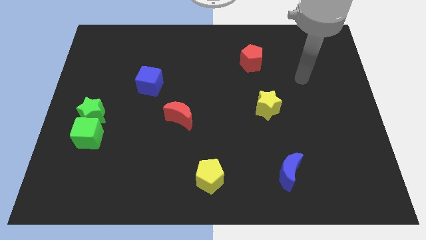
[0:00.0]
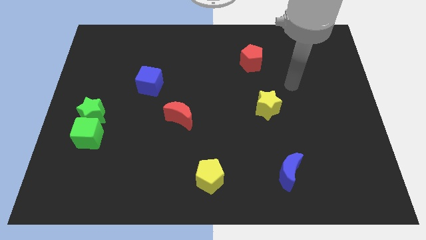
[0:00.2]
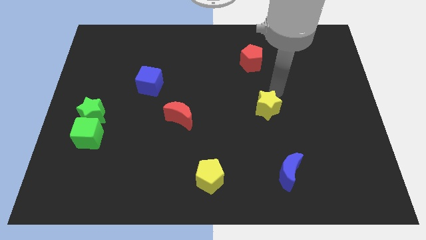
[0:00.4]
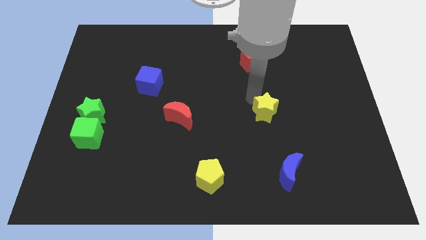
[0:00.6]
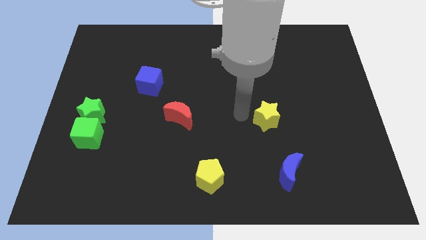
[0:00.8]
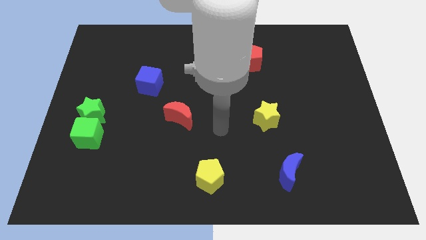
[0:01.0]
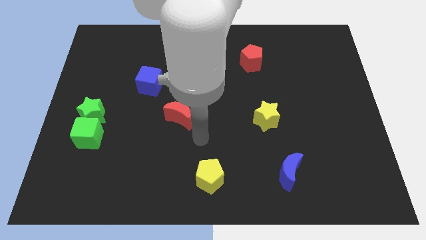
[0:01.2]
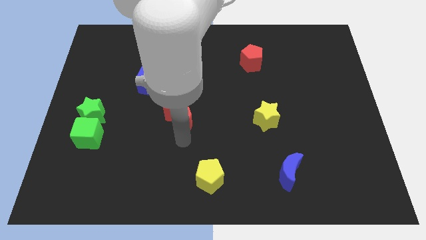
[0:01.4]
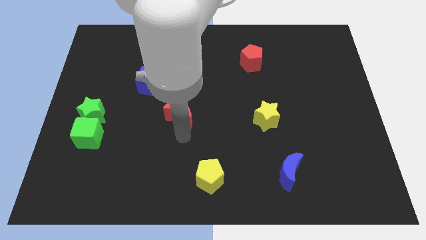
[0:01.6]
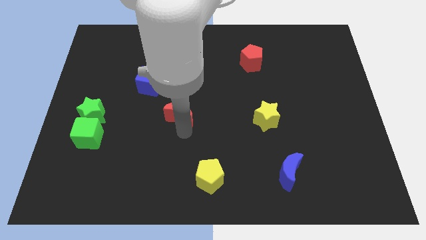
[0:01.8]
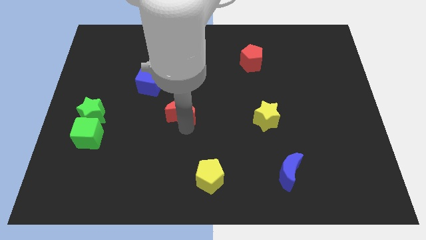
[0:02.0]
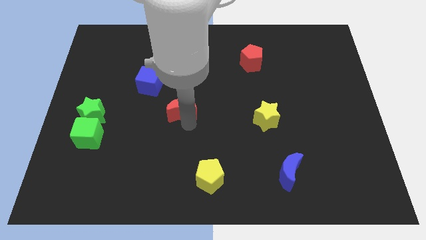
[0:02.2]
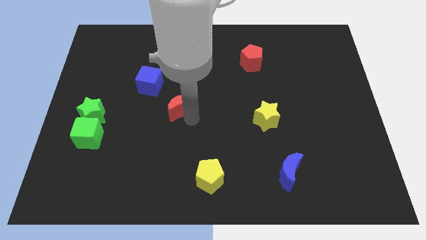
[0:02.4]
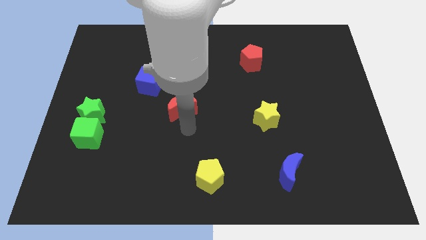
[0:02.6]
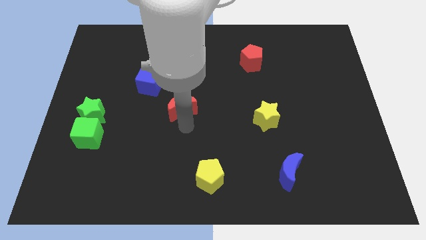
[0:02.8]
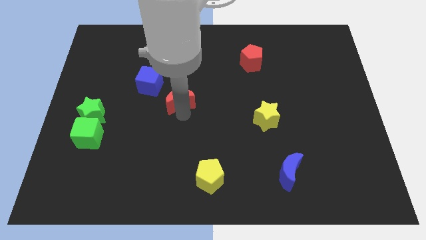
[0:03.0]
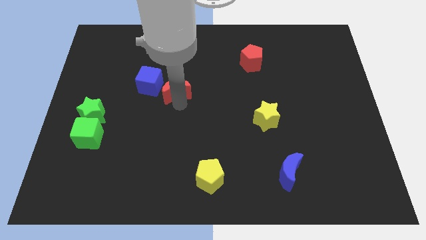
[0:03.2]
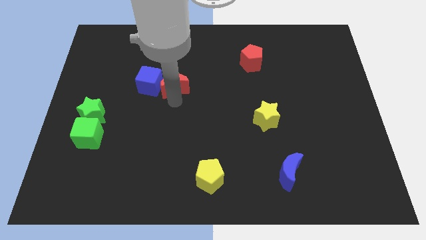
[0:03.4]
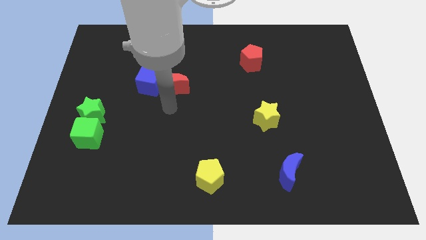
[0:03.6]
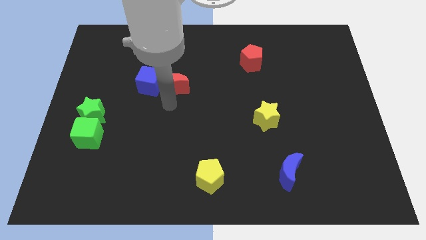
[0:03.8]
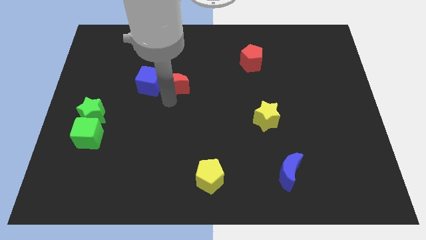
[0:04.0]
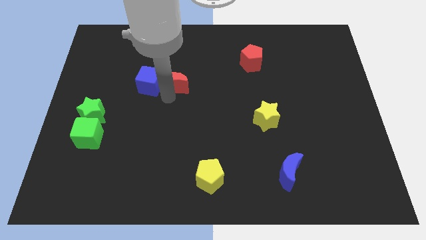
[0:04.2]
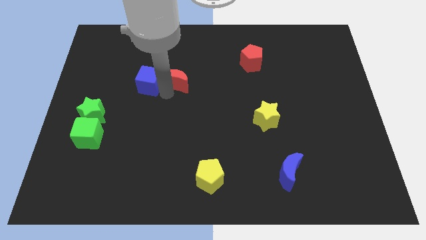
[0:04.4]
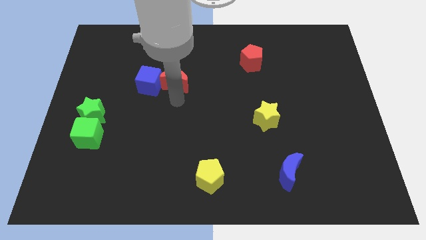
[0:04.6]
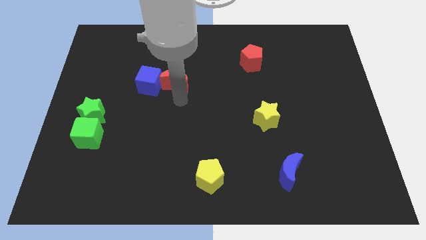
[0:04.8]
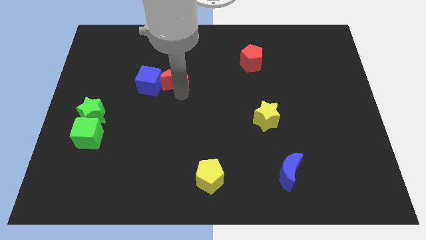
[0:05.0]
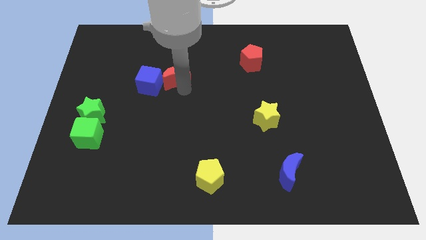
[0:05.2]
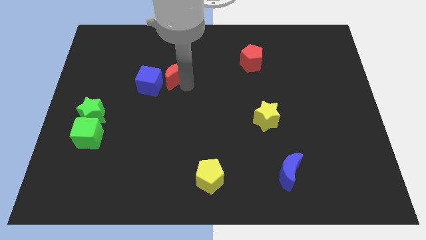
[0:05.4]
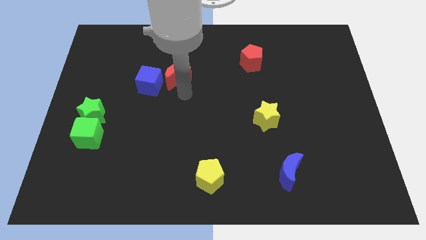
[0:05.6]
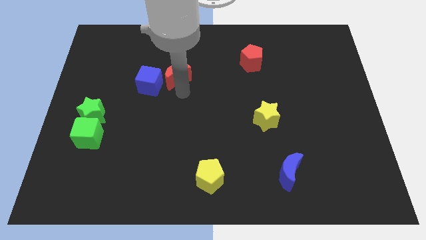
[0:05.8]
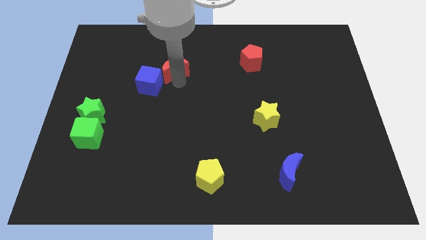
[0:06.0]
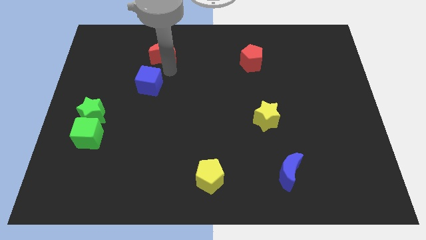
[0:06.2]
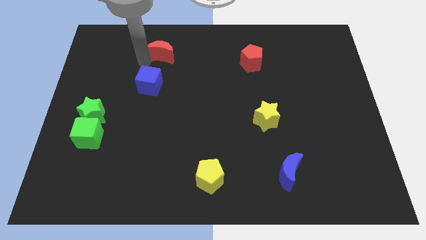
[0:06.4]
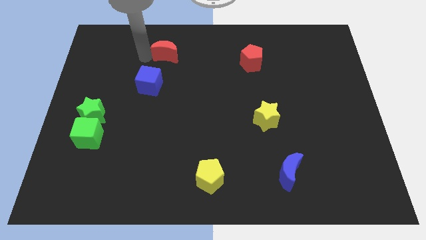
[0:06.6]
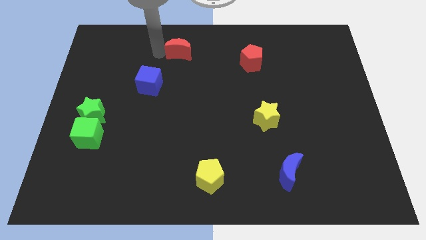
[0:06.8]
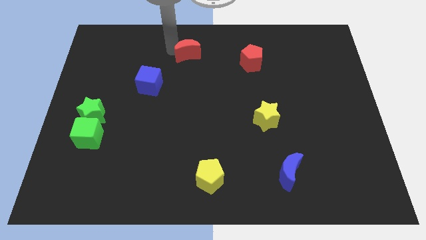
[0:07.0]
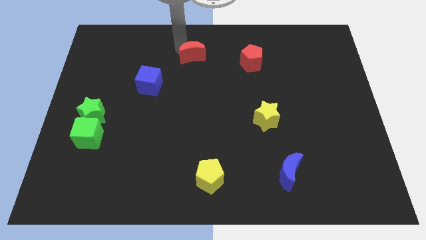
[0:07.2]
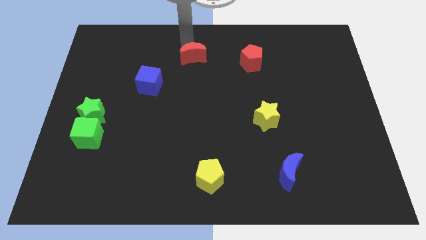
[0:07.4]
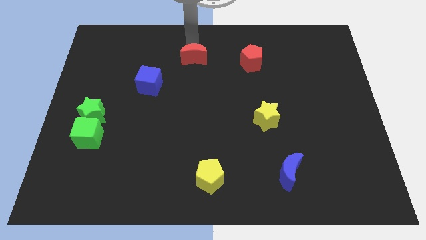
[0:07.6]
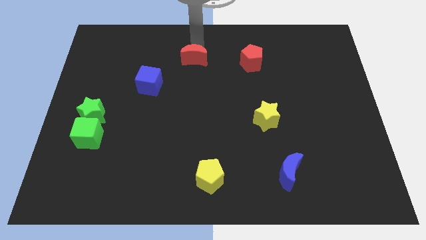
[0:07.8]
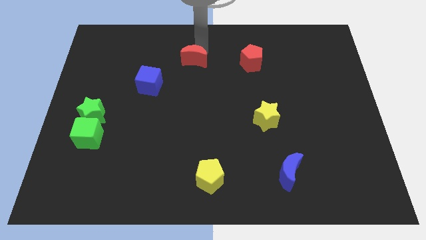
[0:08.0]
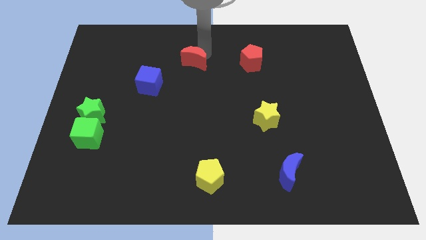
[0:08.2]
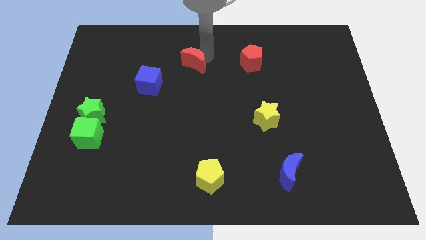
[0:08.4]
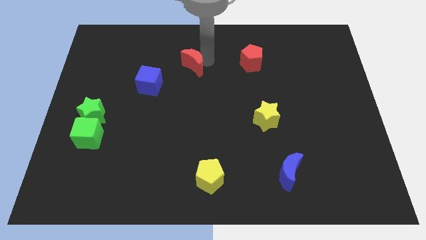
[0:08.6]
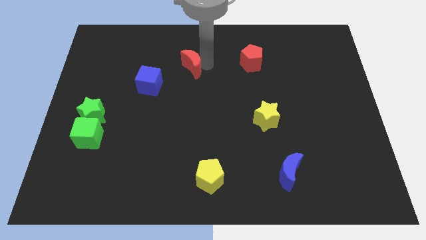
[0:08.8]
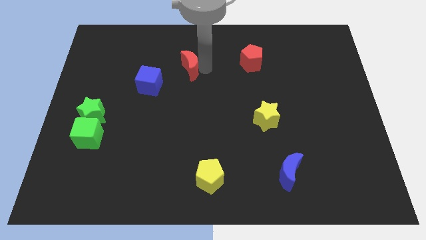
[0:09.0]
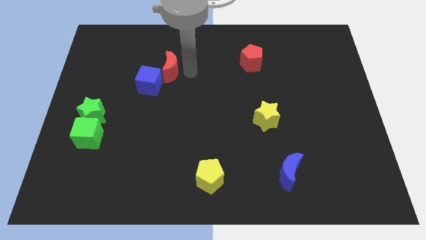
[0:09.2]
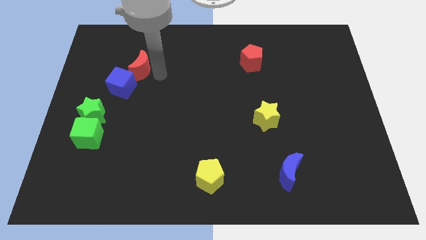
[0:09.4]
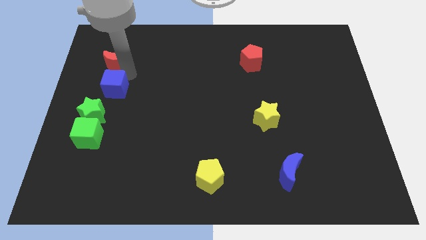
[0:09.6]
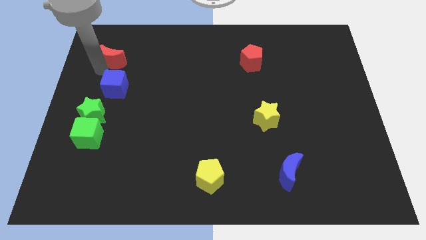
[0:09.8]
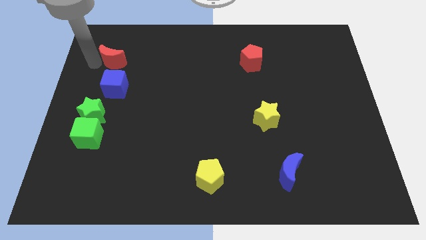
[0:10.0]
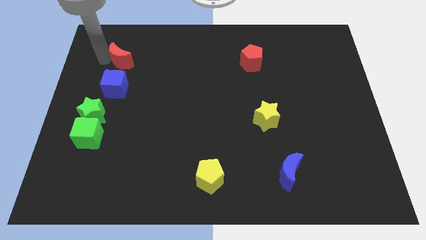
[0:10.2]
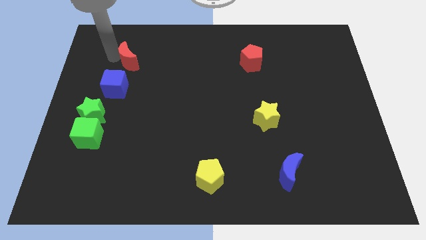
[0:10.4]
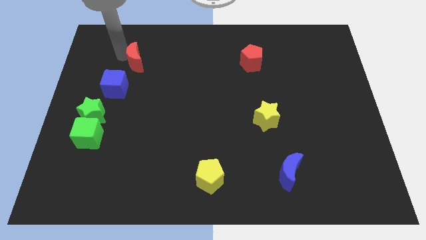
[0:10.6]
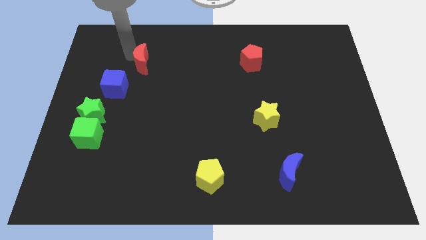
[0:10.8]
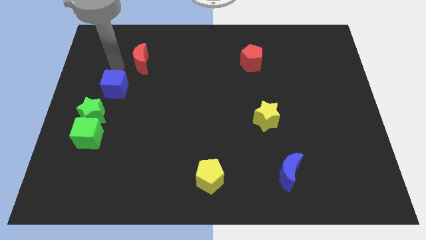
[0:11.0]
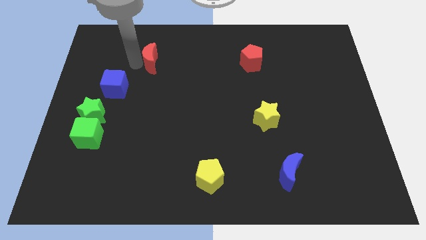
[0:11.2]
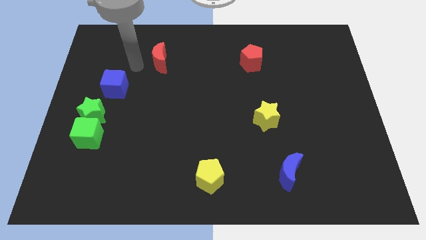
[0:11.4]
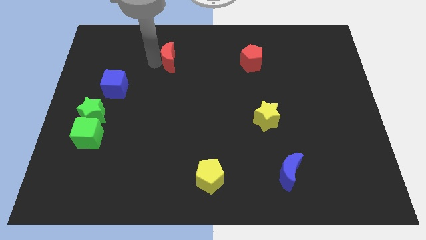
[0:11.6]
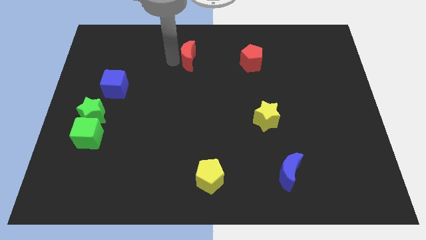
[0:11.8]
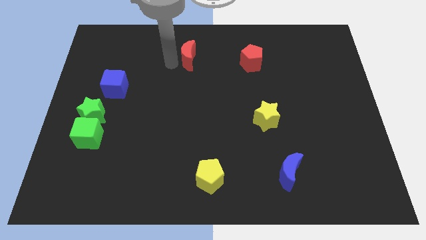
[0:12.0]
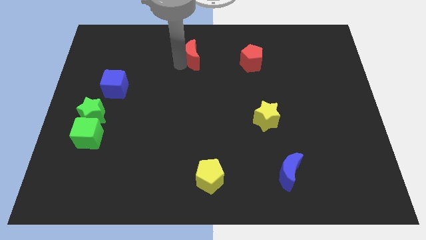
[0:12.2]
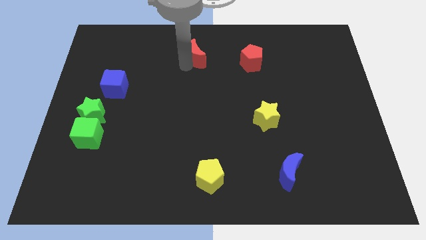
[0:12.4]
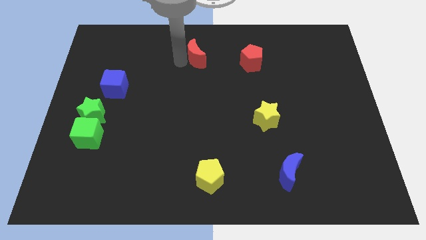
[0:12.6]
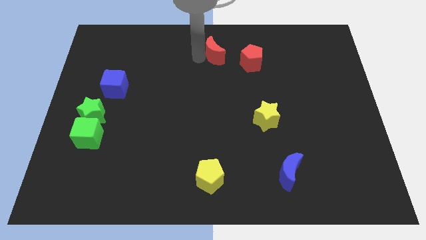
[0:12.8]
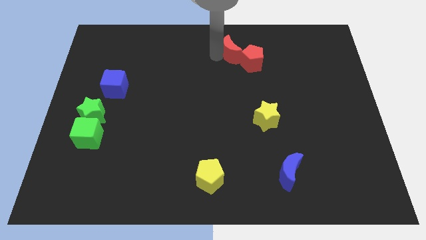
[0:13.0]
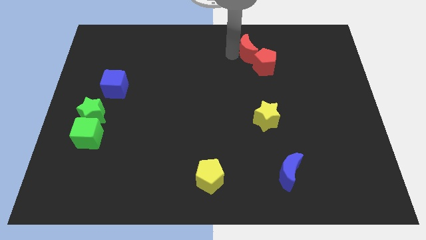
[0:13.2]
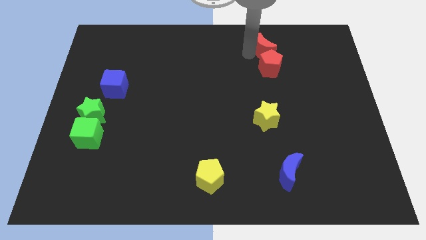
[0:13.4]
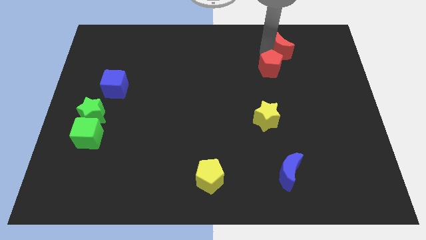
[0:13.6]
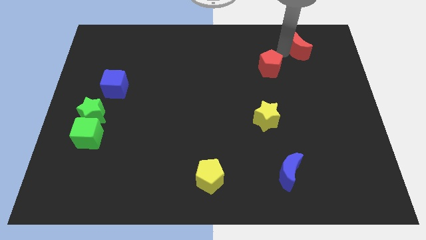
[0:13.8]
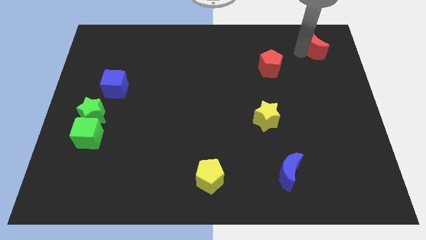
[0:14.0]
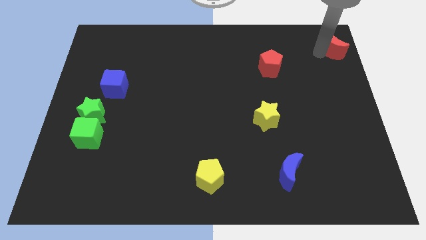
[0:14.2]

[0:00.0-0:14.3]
push the red moon to the top right of the board
